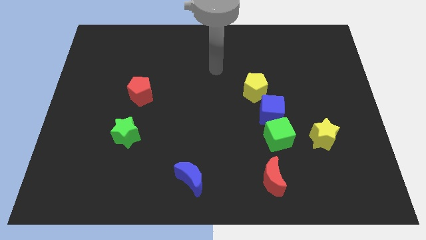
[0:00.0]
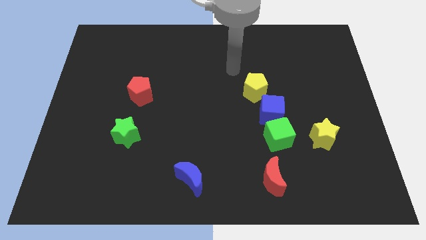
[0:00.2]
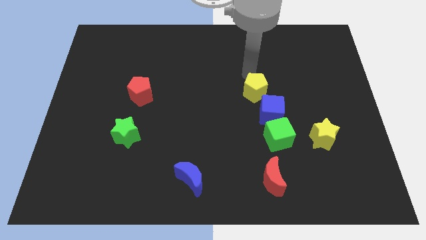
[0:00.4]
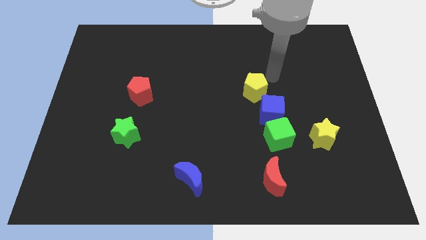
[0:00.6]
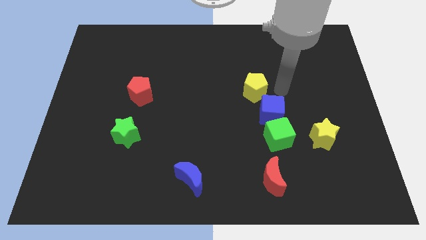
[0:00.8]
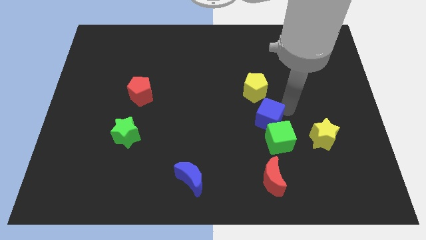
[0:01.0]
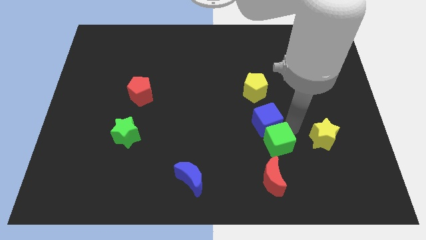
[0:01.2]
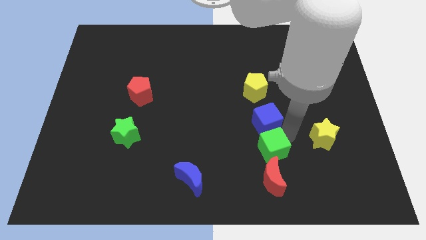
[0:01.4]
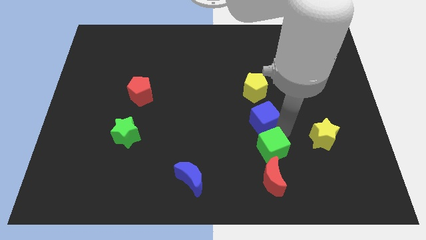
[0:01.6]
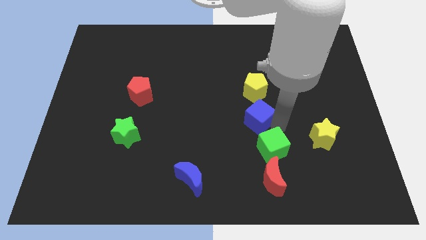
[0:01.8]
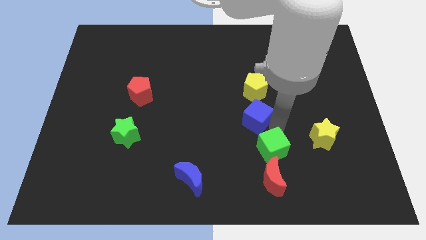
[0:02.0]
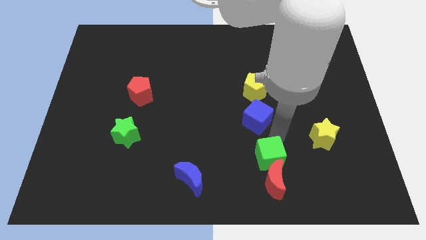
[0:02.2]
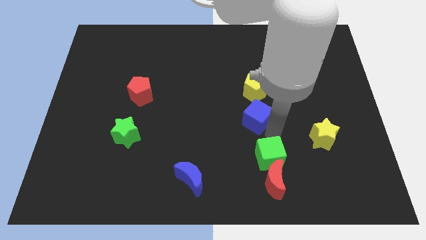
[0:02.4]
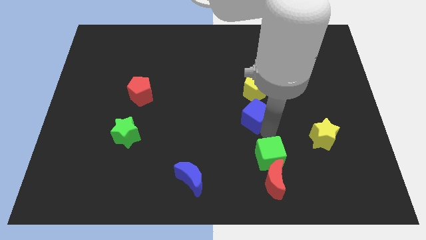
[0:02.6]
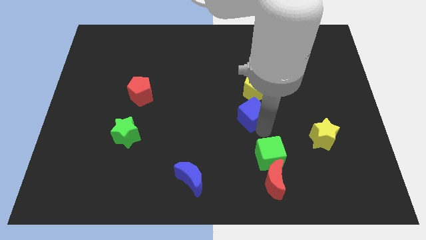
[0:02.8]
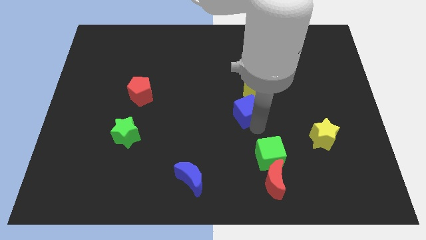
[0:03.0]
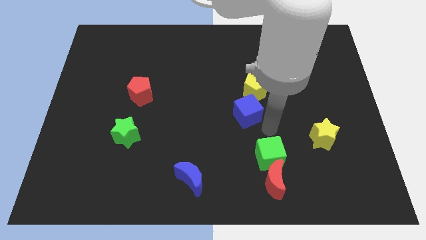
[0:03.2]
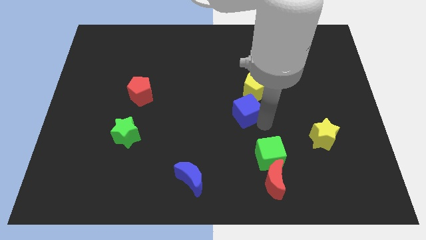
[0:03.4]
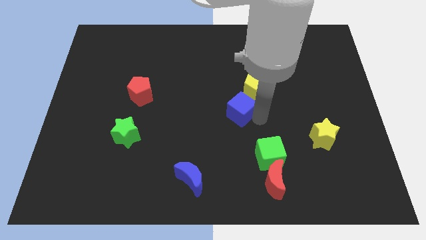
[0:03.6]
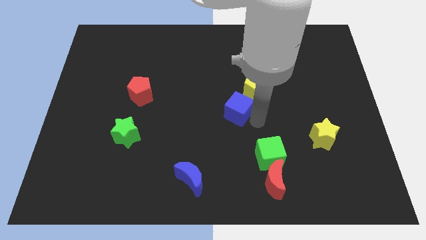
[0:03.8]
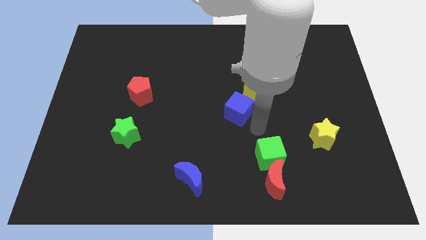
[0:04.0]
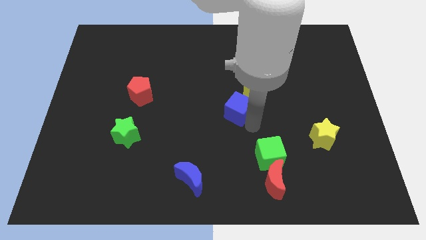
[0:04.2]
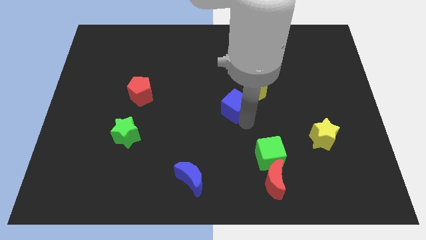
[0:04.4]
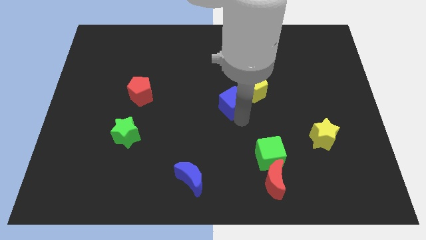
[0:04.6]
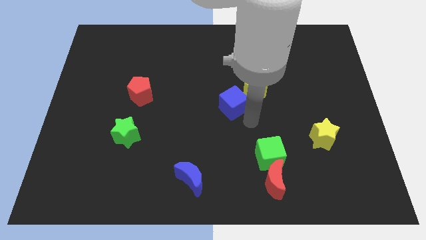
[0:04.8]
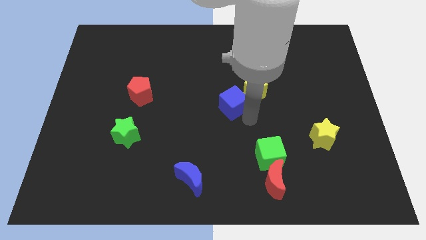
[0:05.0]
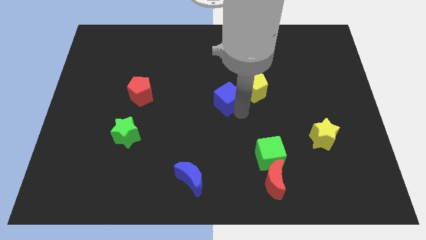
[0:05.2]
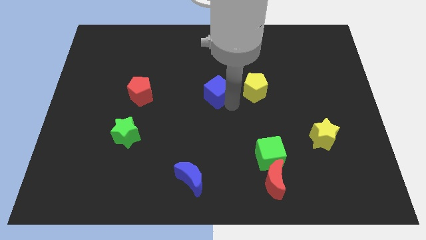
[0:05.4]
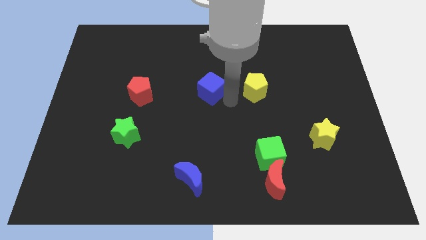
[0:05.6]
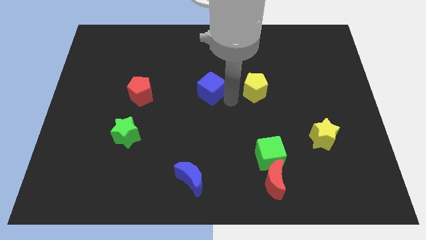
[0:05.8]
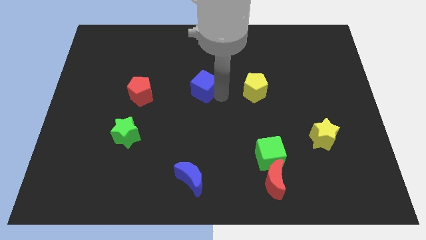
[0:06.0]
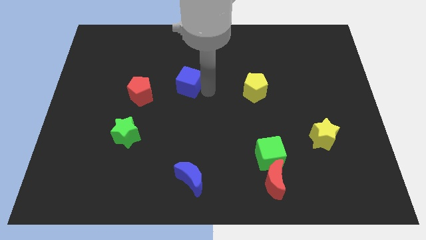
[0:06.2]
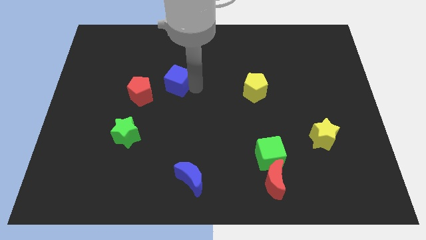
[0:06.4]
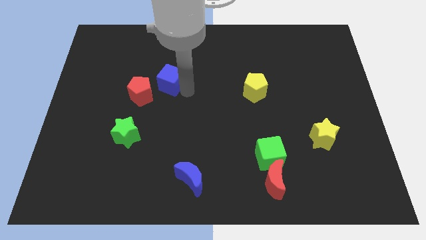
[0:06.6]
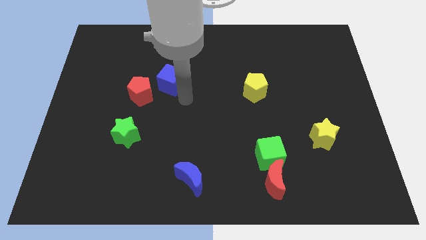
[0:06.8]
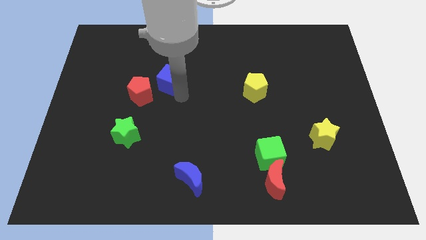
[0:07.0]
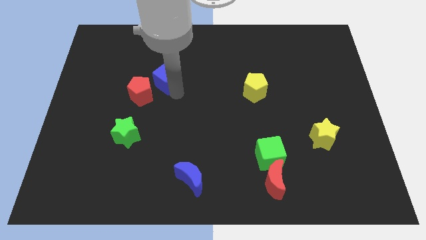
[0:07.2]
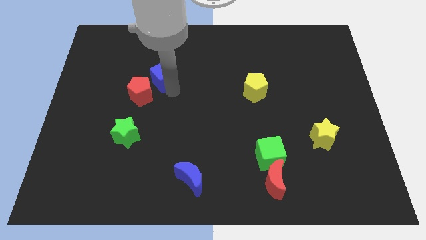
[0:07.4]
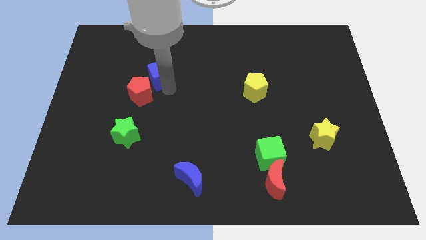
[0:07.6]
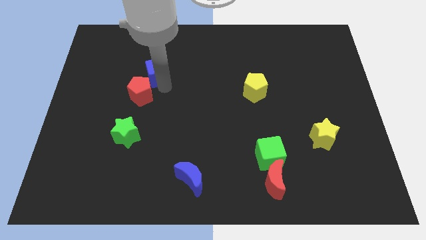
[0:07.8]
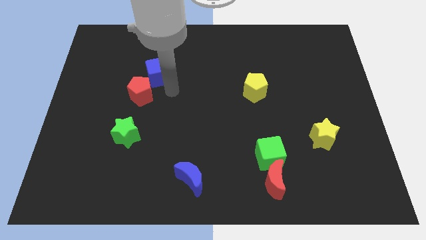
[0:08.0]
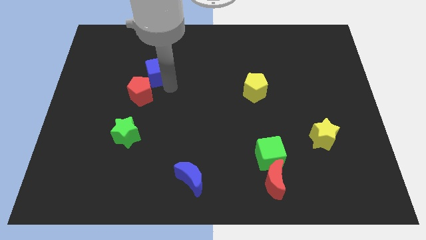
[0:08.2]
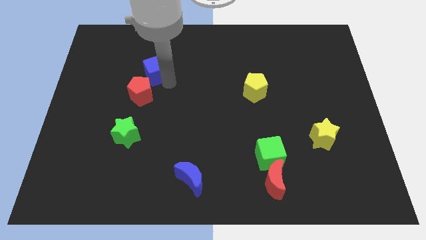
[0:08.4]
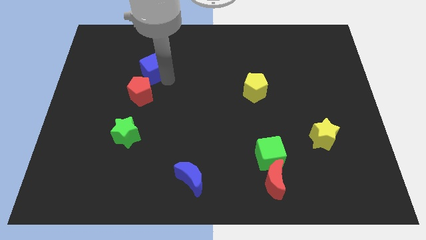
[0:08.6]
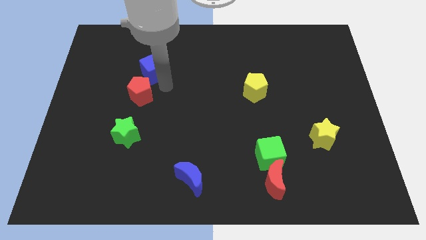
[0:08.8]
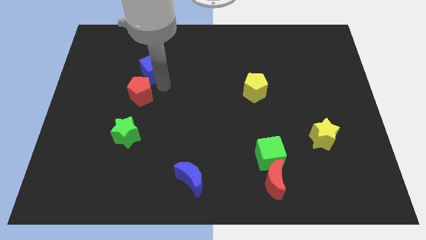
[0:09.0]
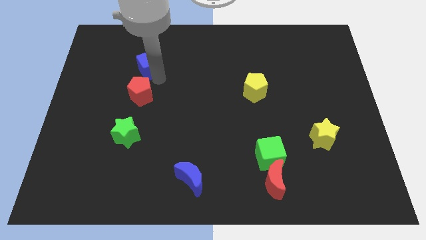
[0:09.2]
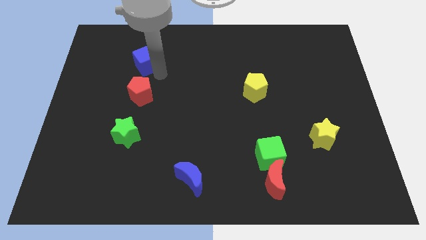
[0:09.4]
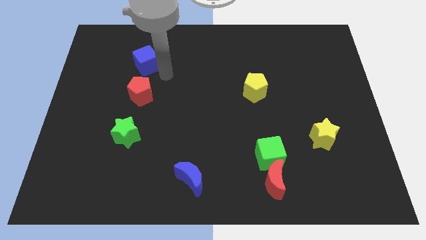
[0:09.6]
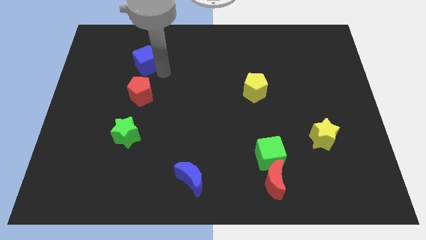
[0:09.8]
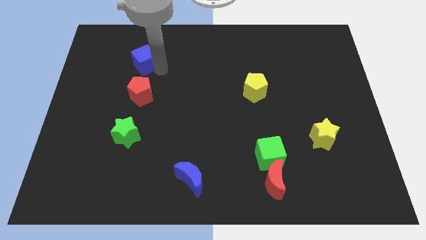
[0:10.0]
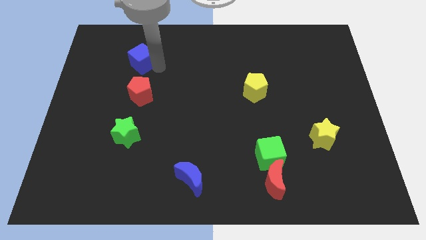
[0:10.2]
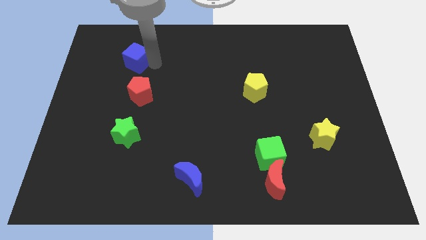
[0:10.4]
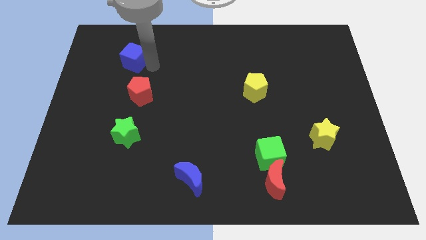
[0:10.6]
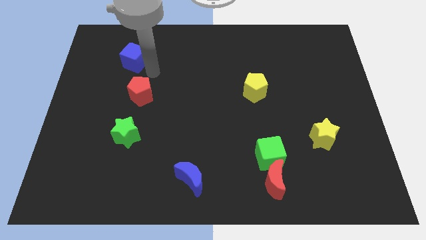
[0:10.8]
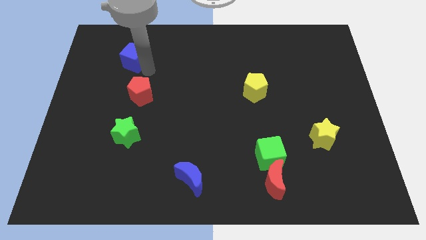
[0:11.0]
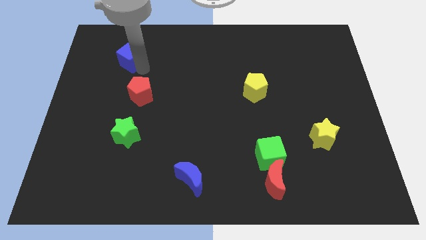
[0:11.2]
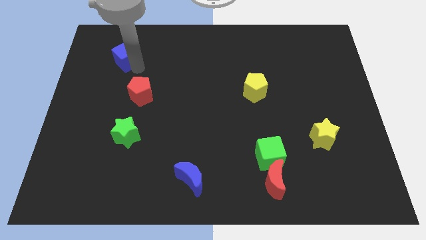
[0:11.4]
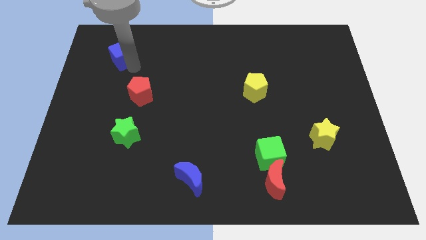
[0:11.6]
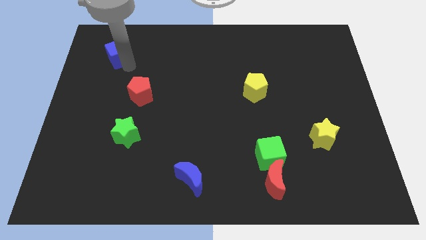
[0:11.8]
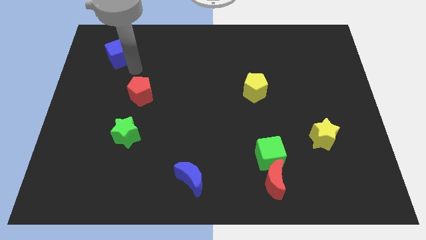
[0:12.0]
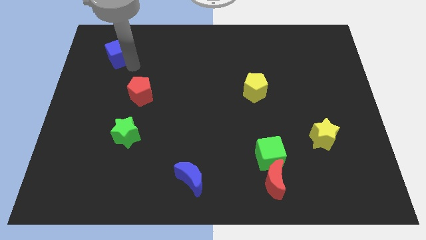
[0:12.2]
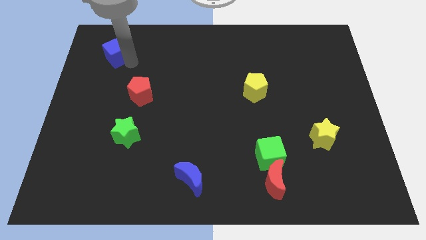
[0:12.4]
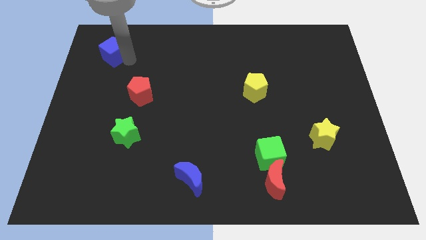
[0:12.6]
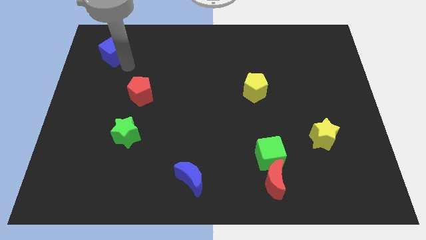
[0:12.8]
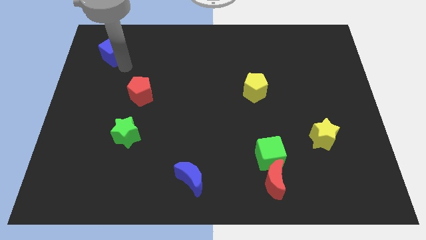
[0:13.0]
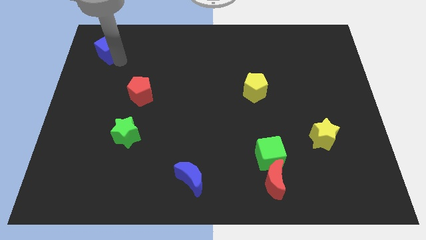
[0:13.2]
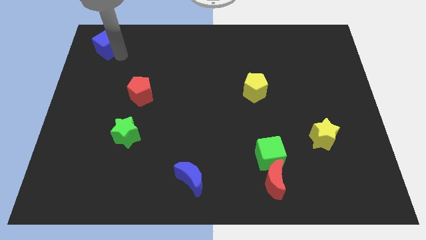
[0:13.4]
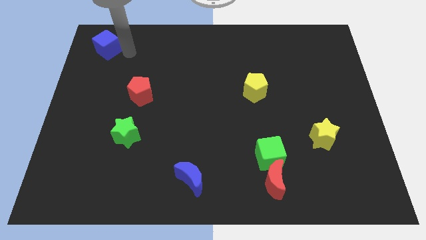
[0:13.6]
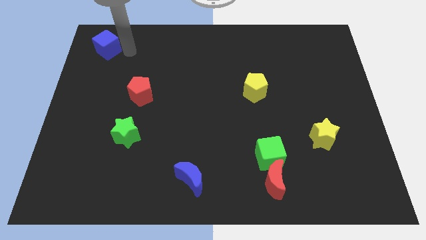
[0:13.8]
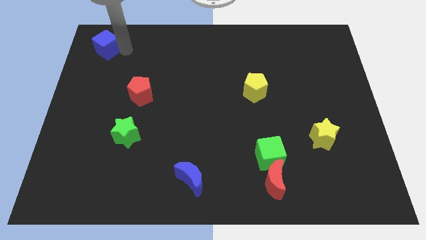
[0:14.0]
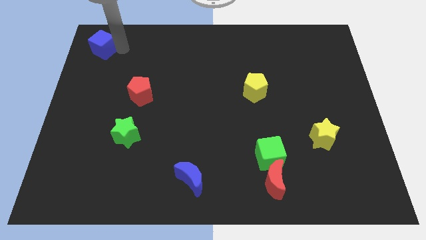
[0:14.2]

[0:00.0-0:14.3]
put the blue cube to the top left of the board
